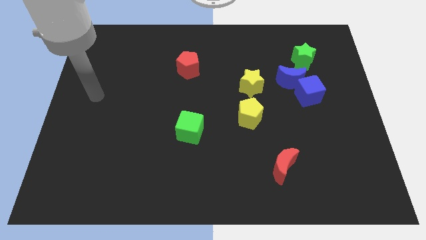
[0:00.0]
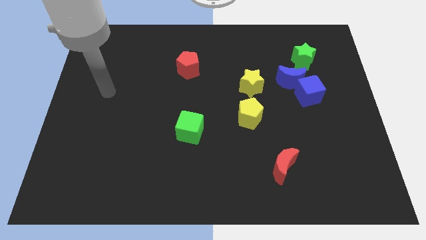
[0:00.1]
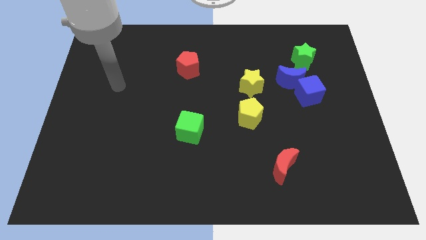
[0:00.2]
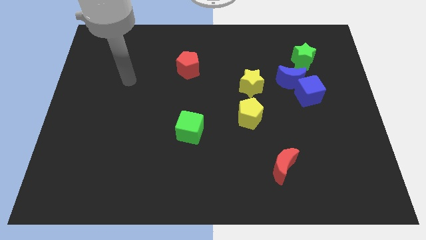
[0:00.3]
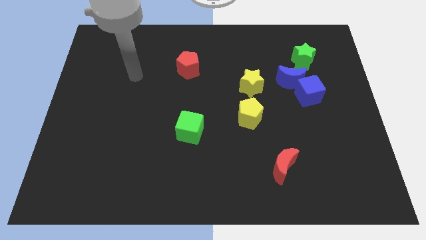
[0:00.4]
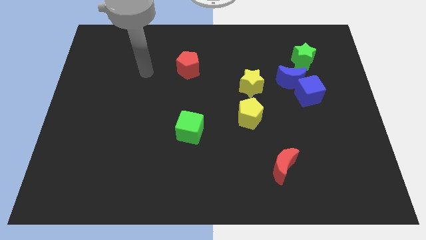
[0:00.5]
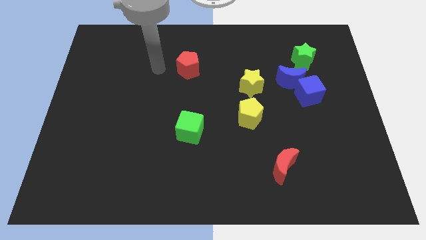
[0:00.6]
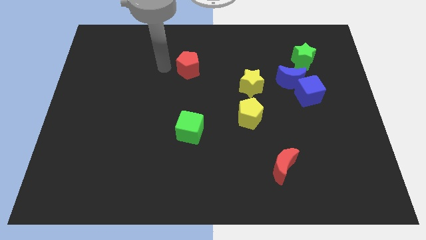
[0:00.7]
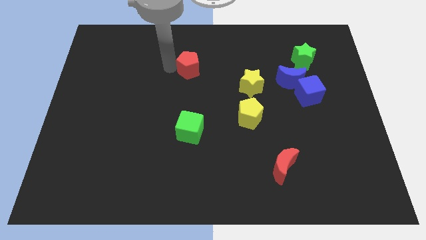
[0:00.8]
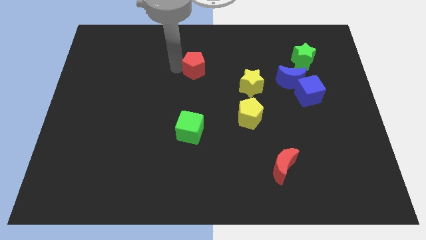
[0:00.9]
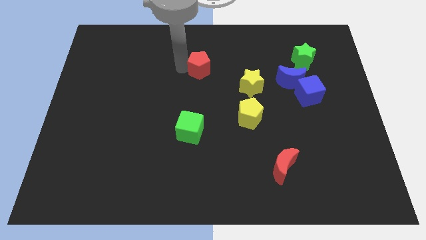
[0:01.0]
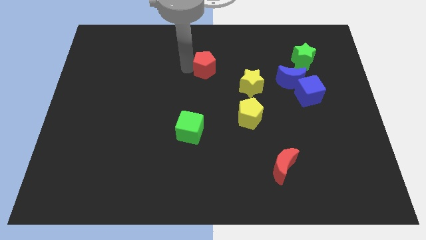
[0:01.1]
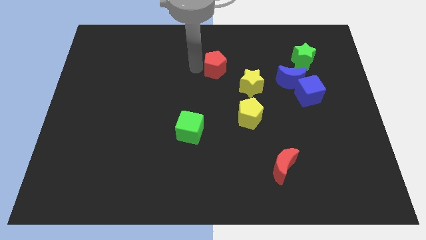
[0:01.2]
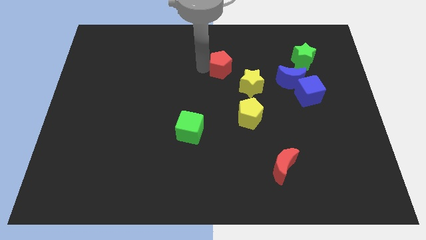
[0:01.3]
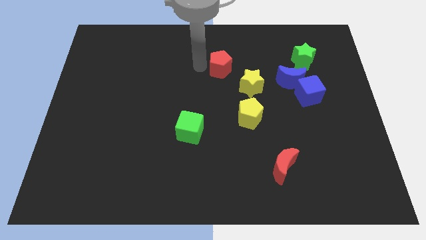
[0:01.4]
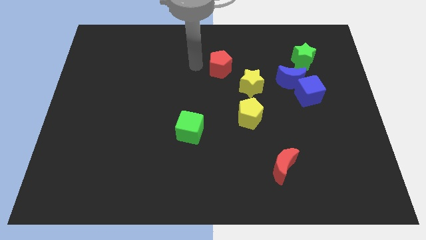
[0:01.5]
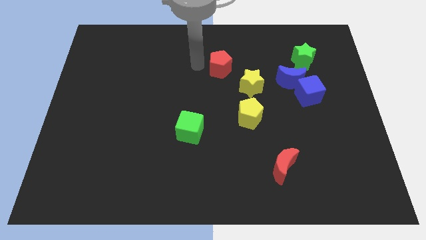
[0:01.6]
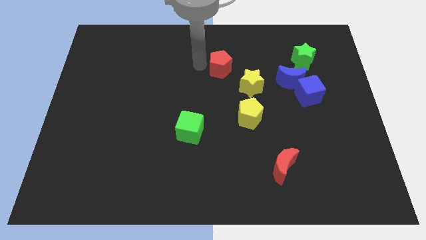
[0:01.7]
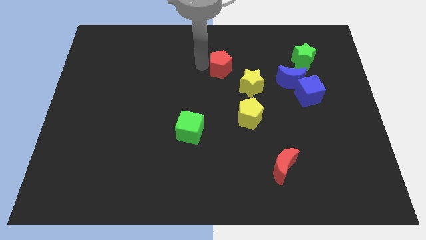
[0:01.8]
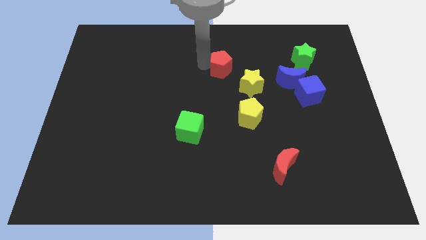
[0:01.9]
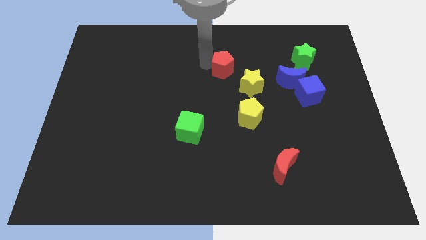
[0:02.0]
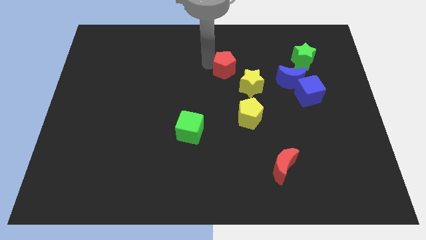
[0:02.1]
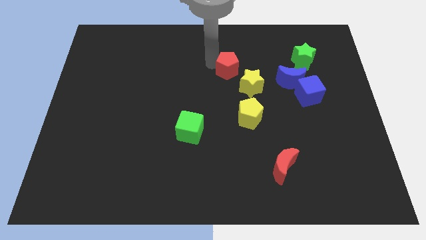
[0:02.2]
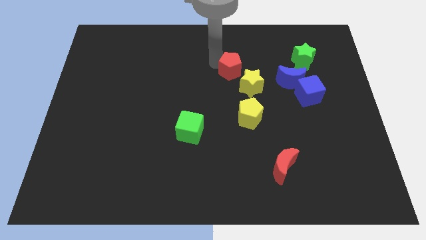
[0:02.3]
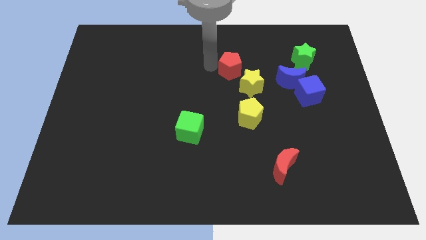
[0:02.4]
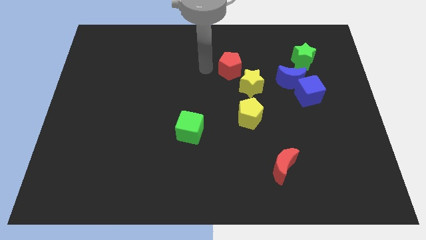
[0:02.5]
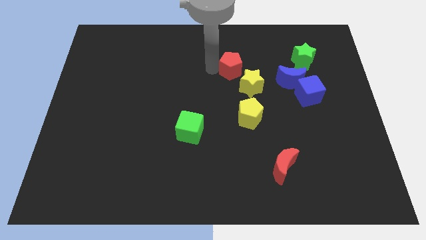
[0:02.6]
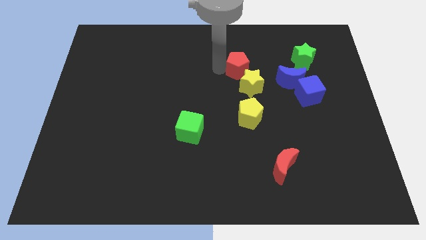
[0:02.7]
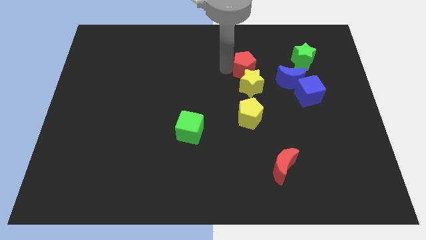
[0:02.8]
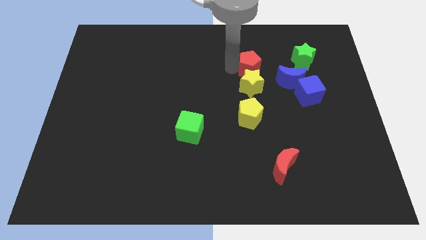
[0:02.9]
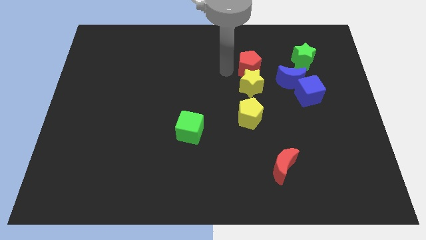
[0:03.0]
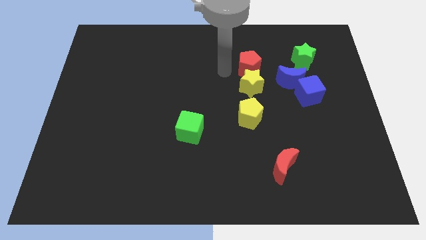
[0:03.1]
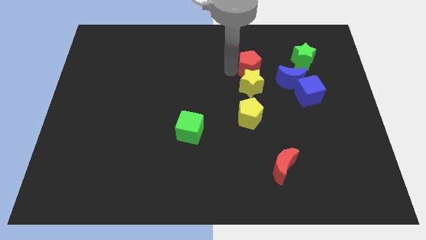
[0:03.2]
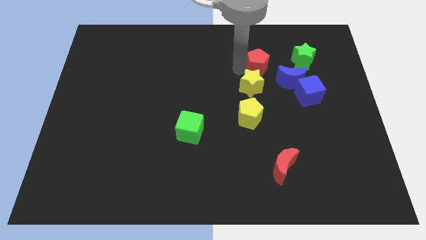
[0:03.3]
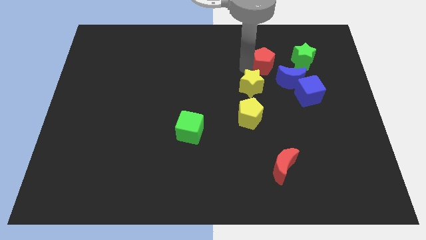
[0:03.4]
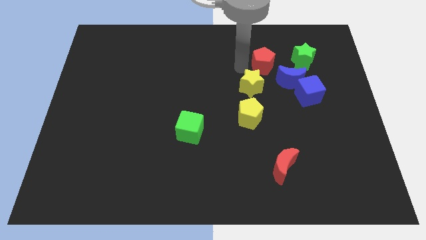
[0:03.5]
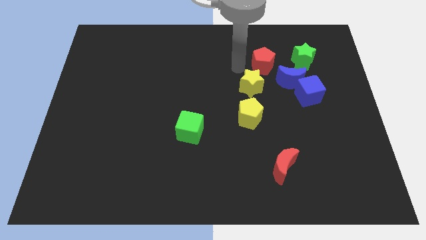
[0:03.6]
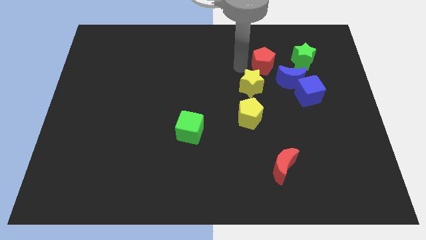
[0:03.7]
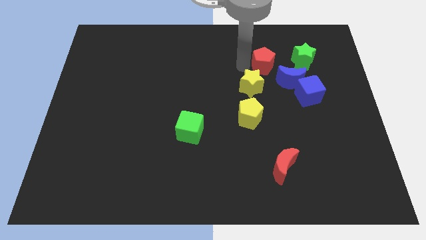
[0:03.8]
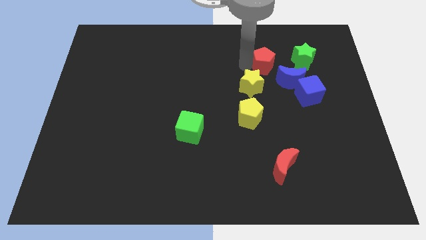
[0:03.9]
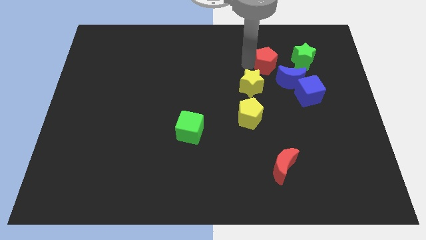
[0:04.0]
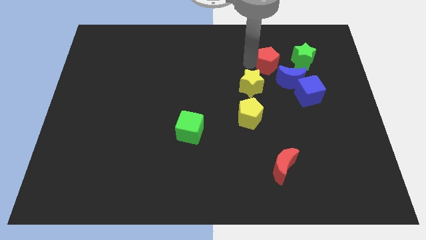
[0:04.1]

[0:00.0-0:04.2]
move the red pentagon to the right

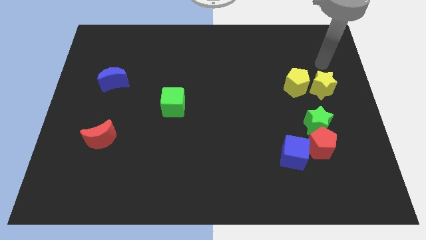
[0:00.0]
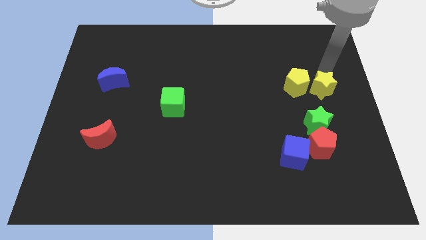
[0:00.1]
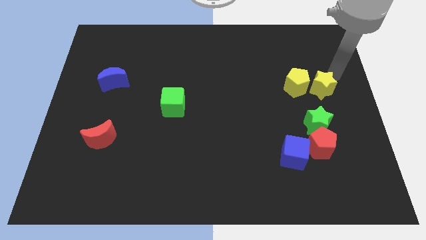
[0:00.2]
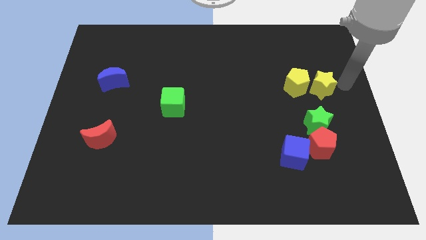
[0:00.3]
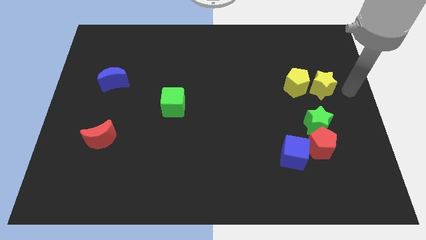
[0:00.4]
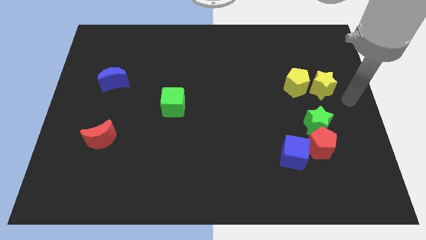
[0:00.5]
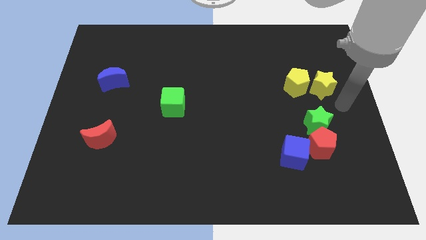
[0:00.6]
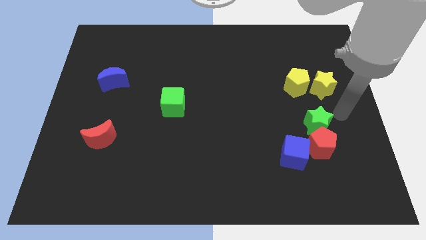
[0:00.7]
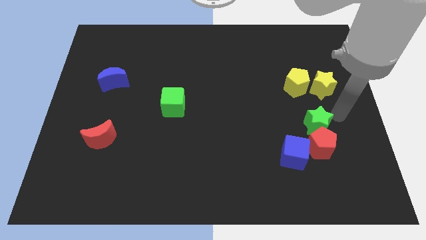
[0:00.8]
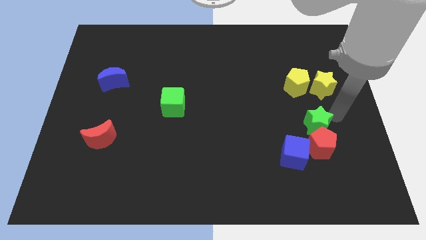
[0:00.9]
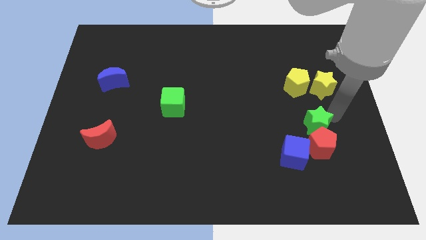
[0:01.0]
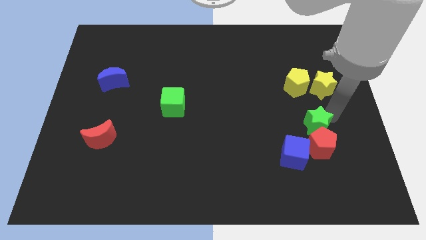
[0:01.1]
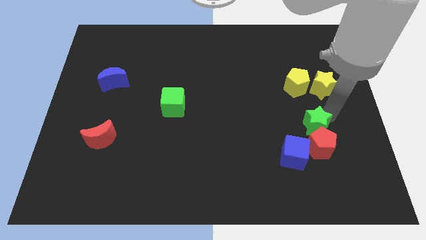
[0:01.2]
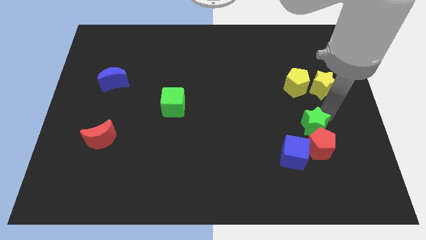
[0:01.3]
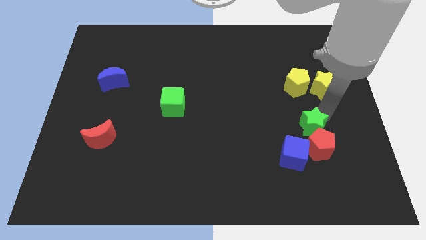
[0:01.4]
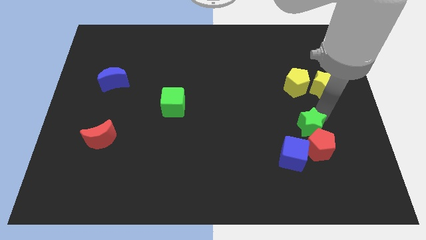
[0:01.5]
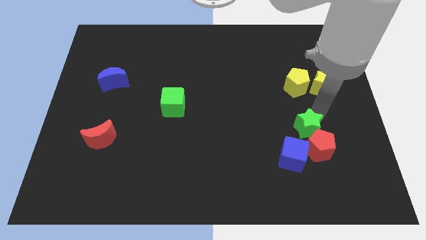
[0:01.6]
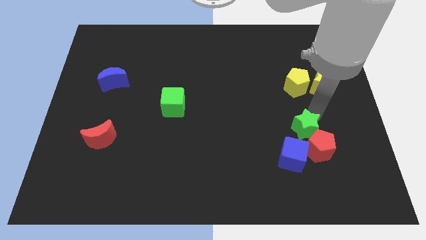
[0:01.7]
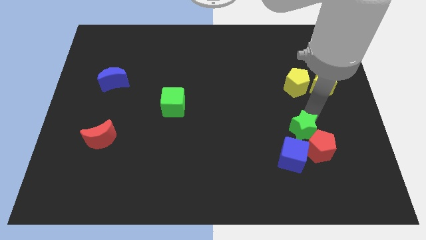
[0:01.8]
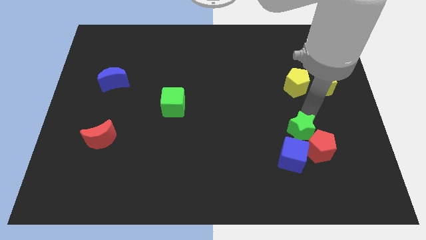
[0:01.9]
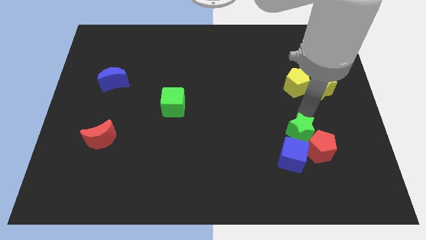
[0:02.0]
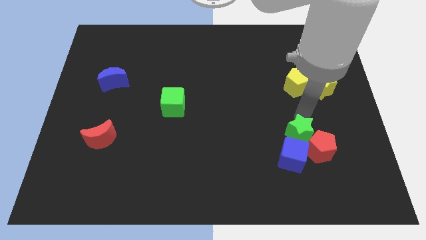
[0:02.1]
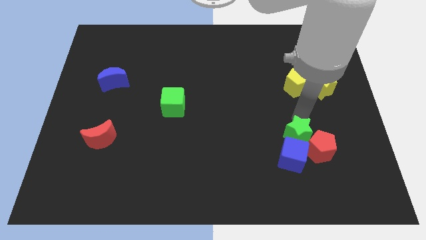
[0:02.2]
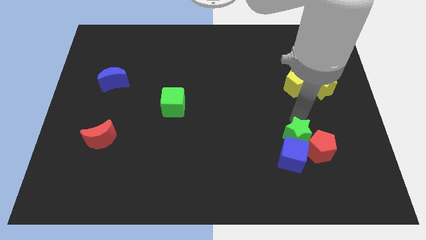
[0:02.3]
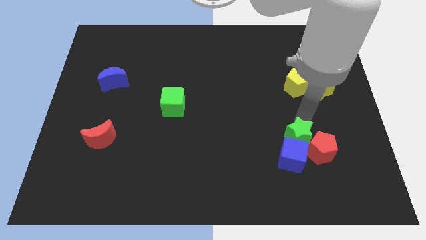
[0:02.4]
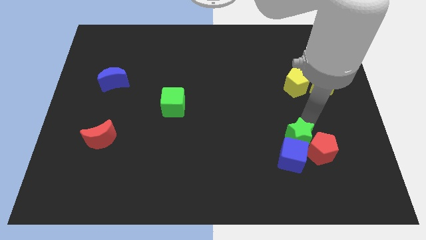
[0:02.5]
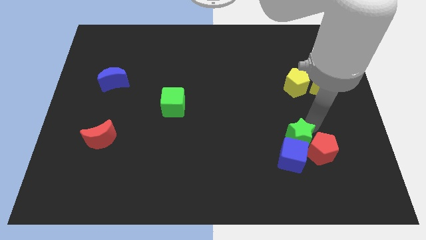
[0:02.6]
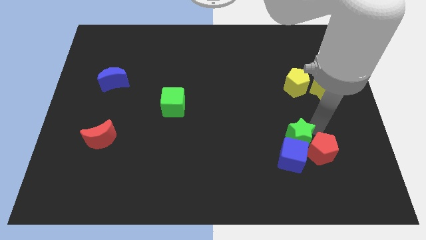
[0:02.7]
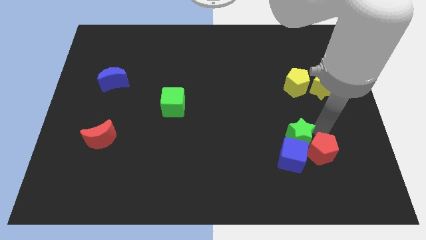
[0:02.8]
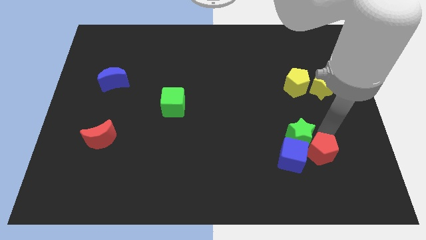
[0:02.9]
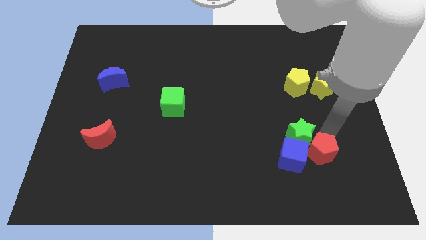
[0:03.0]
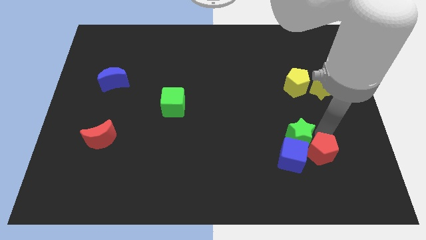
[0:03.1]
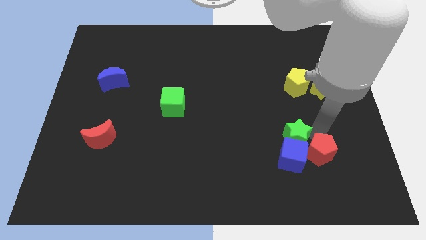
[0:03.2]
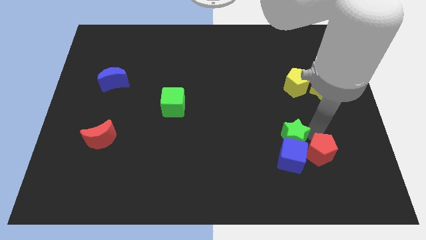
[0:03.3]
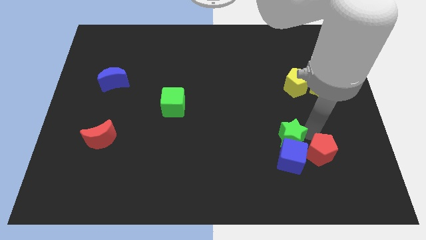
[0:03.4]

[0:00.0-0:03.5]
slightly move the green star diagonally down and left

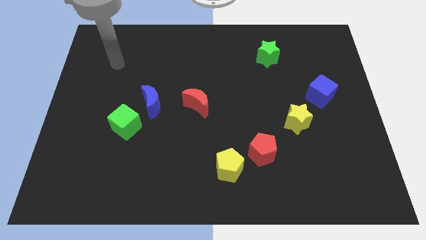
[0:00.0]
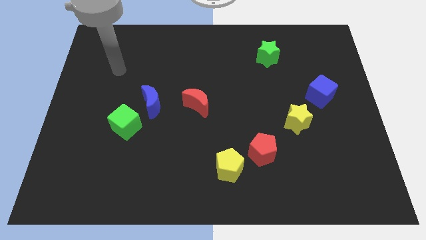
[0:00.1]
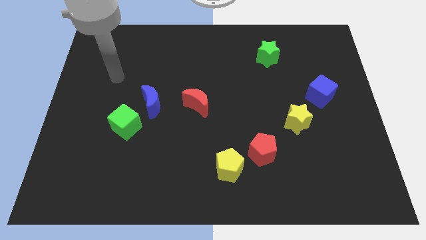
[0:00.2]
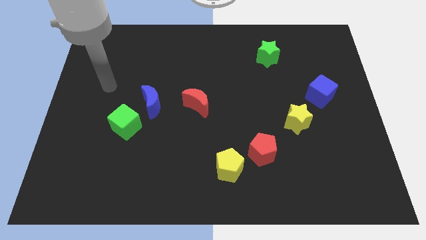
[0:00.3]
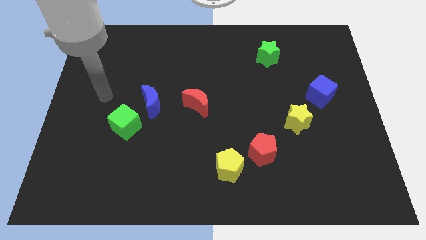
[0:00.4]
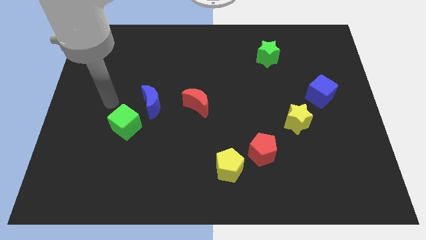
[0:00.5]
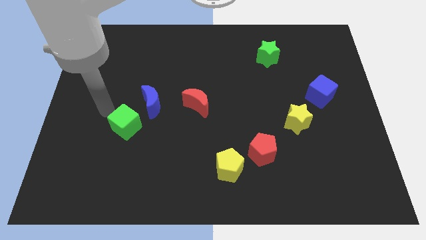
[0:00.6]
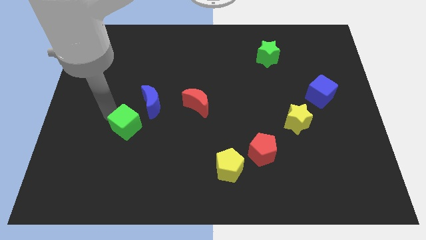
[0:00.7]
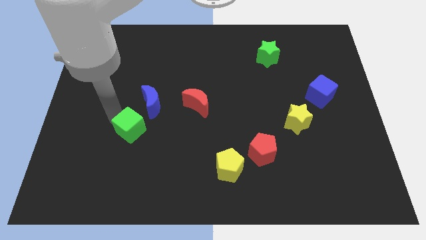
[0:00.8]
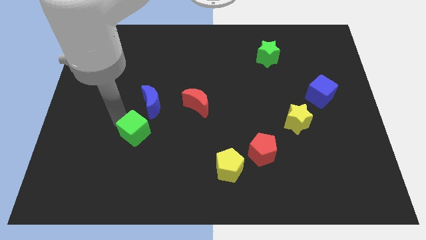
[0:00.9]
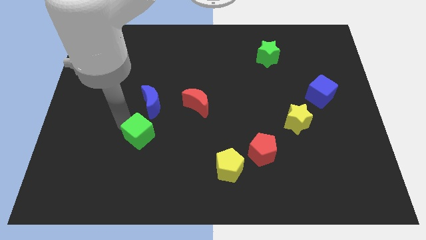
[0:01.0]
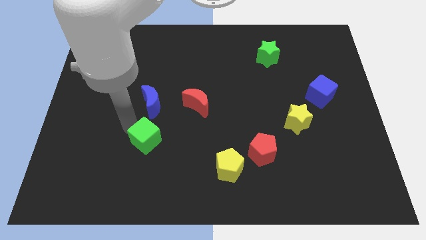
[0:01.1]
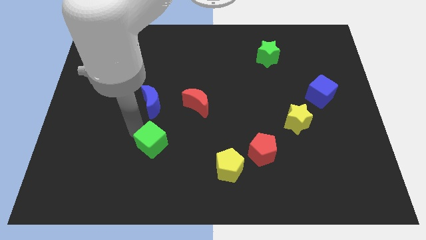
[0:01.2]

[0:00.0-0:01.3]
slide the green cube a little bit downwards and to the right diagonally
